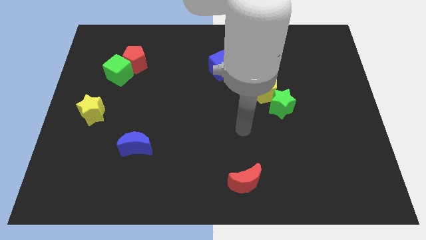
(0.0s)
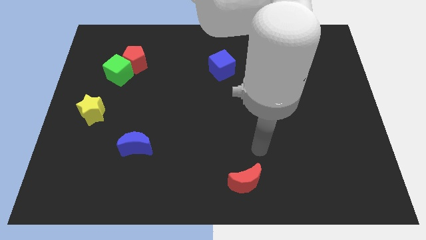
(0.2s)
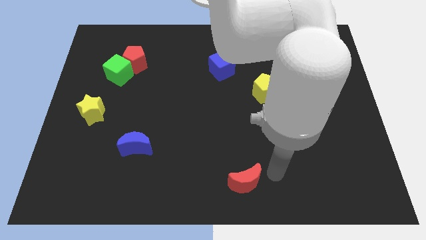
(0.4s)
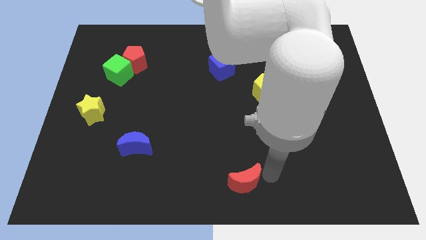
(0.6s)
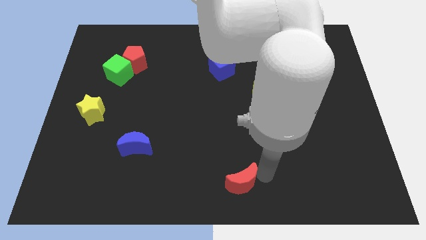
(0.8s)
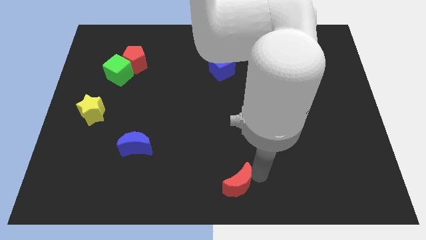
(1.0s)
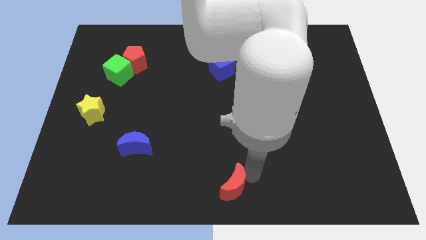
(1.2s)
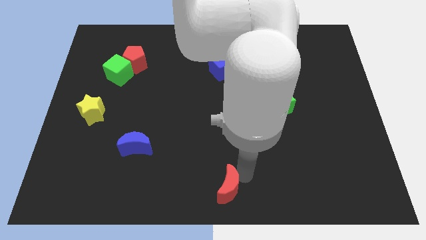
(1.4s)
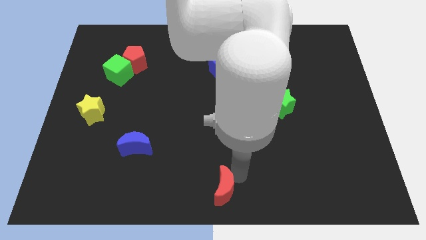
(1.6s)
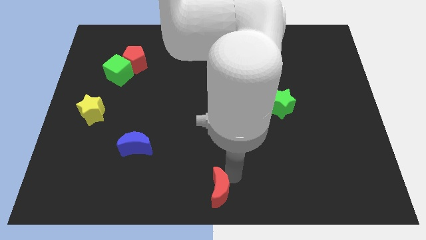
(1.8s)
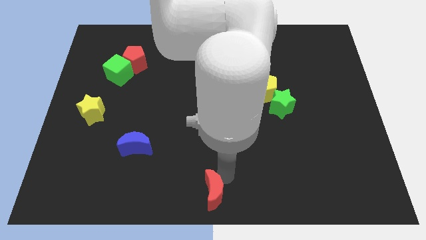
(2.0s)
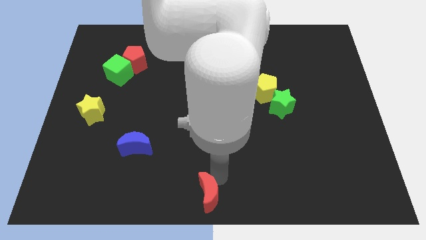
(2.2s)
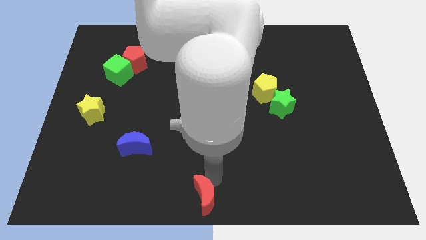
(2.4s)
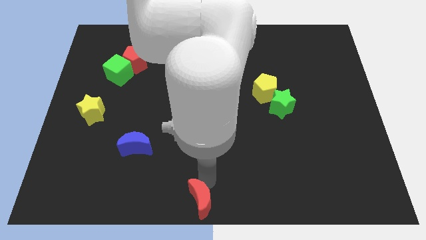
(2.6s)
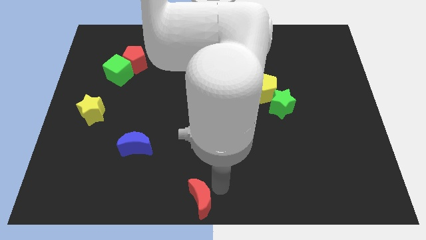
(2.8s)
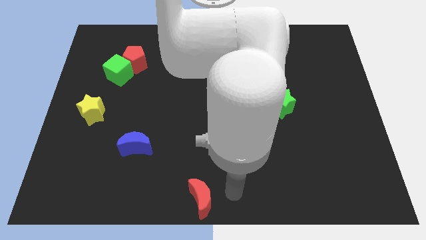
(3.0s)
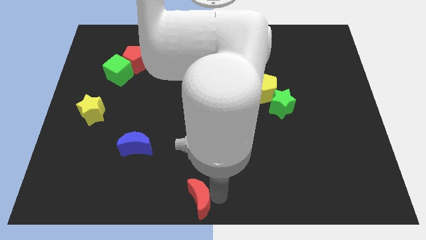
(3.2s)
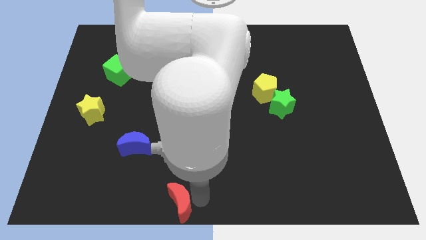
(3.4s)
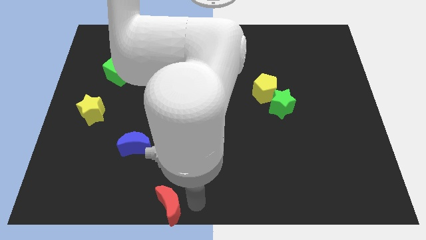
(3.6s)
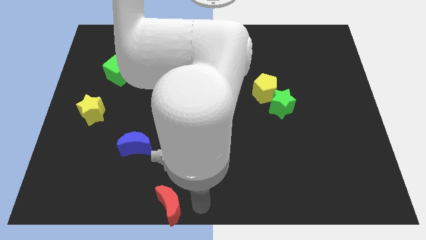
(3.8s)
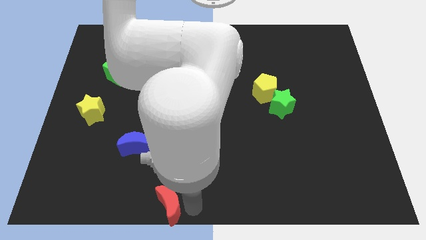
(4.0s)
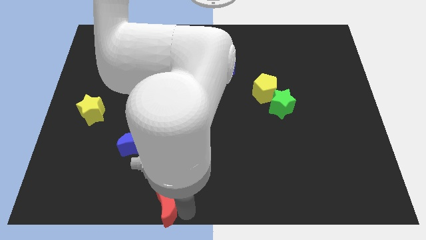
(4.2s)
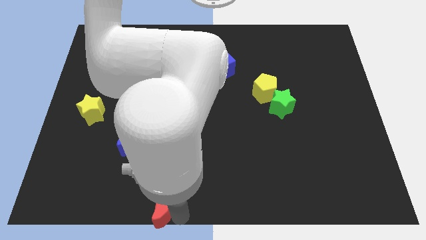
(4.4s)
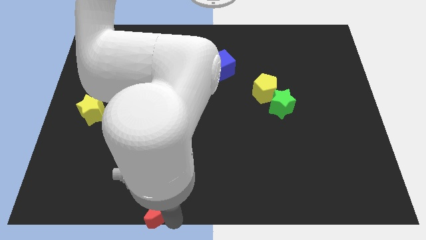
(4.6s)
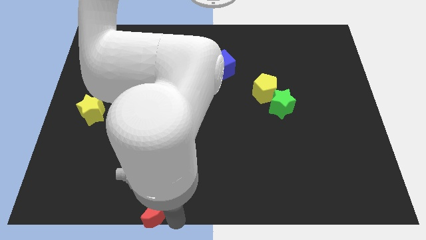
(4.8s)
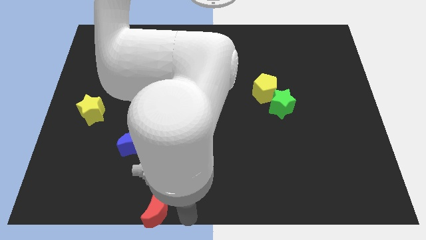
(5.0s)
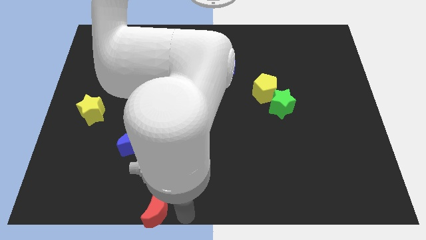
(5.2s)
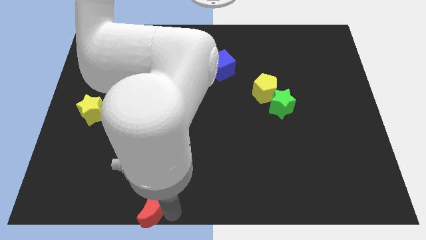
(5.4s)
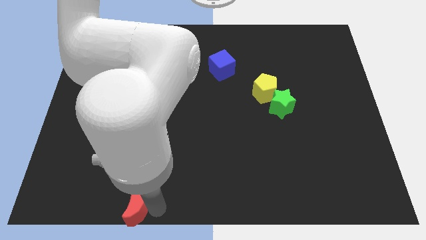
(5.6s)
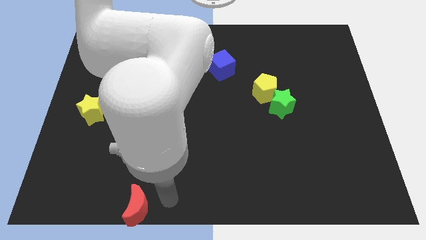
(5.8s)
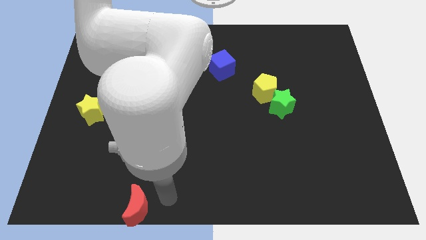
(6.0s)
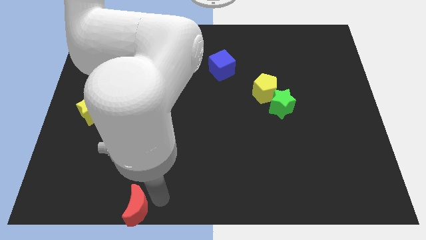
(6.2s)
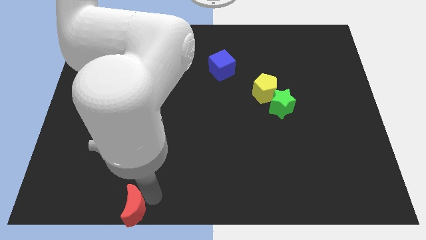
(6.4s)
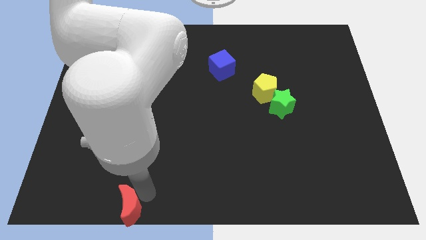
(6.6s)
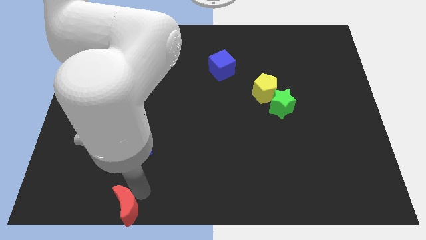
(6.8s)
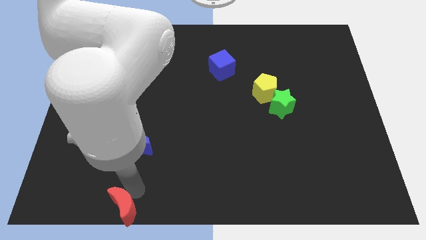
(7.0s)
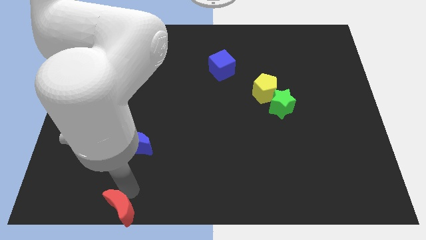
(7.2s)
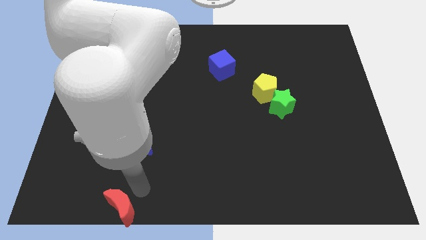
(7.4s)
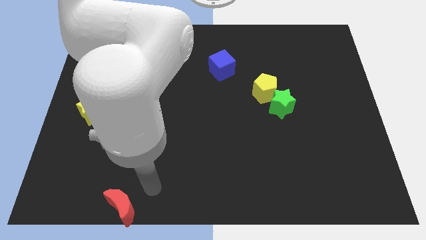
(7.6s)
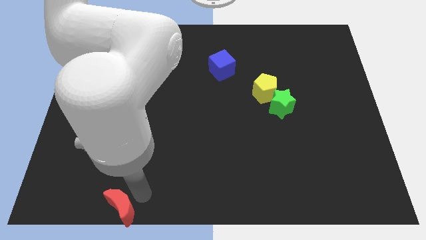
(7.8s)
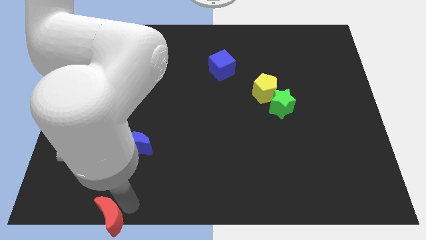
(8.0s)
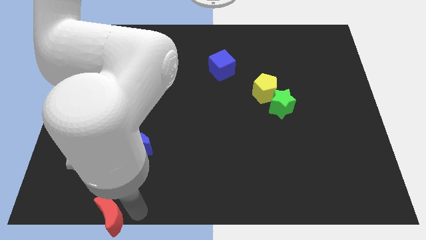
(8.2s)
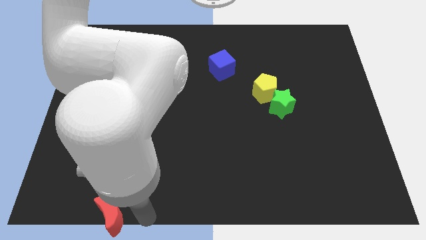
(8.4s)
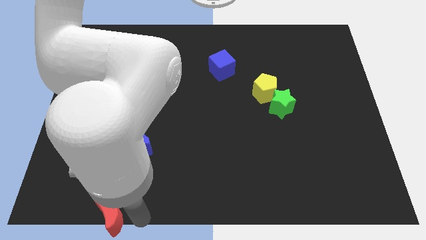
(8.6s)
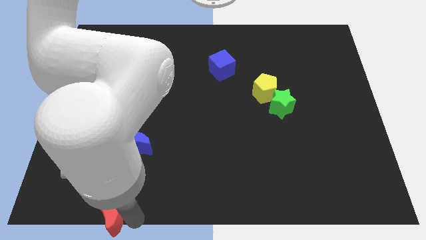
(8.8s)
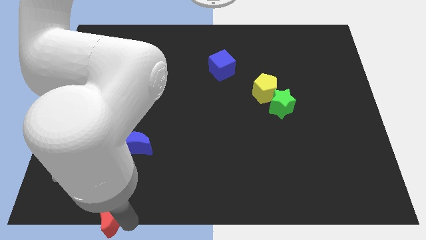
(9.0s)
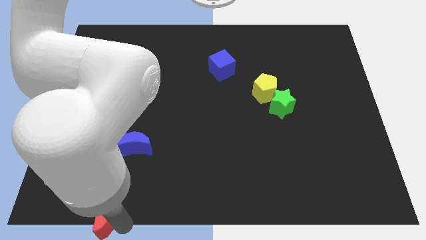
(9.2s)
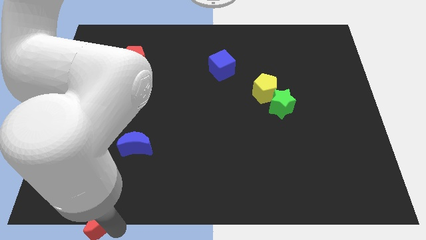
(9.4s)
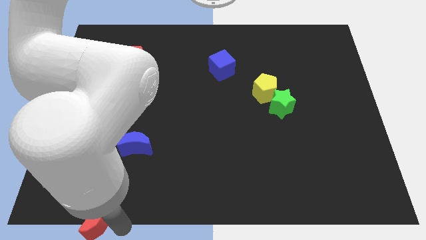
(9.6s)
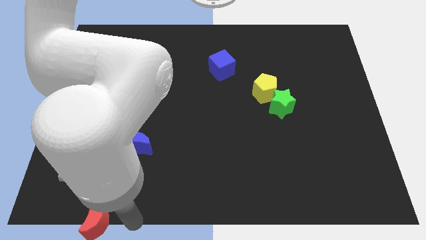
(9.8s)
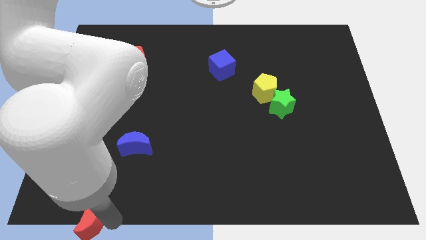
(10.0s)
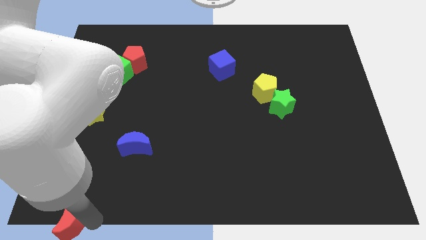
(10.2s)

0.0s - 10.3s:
put the red moon to the bottom left

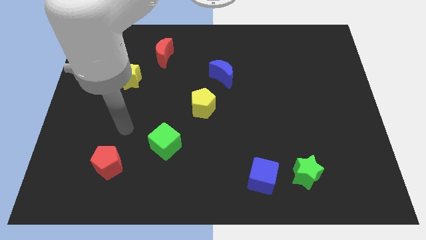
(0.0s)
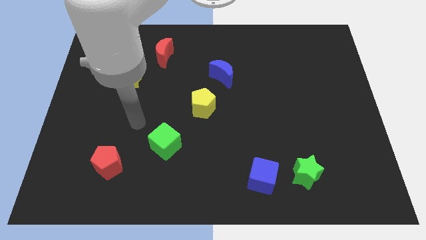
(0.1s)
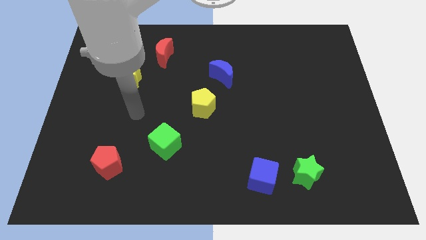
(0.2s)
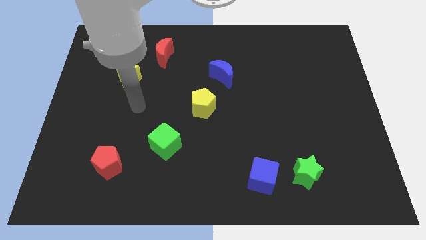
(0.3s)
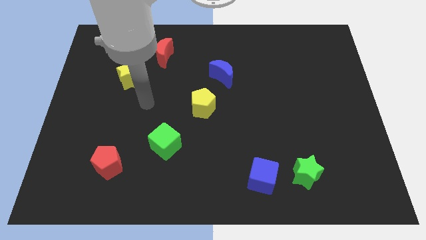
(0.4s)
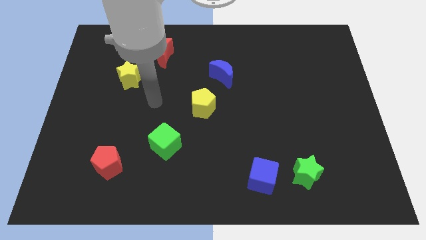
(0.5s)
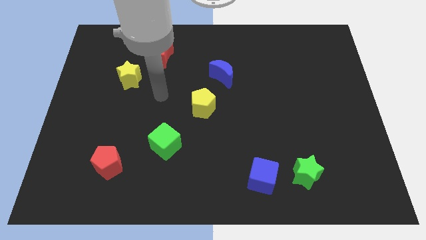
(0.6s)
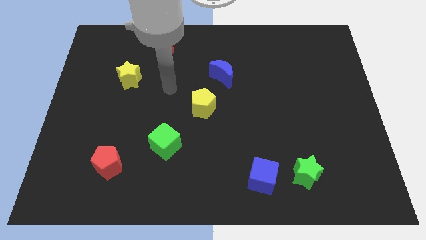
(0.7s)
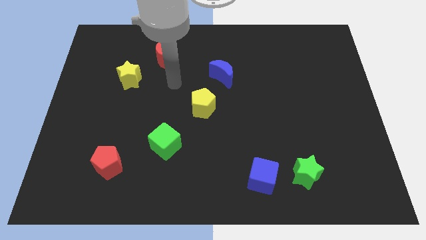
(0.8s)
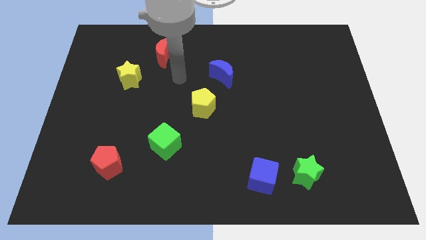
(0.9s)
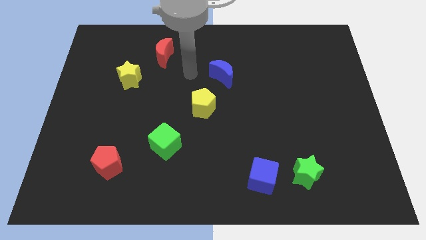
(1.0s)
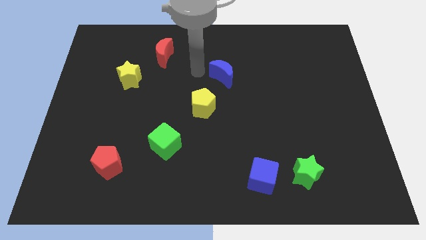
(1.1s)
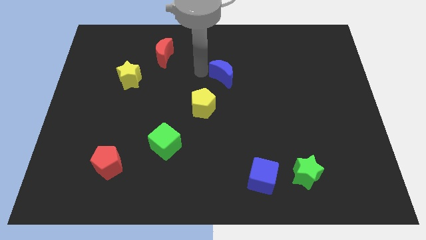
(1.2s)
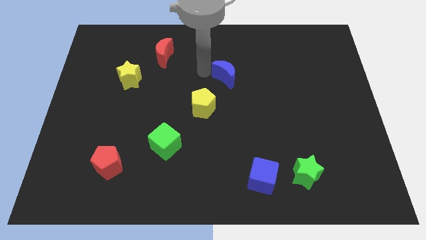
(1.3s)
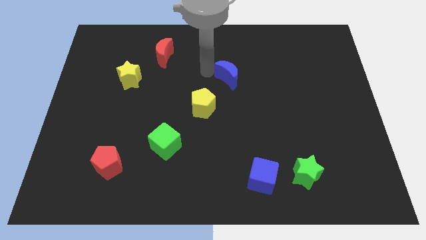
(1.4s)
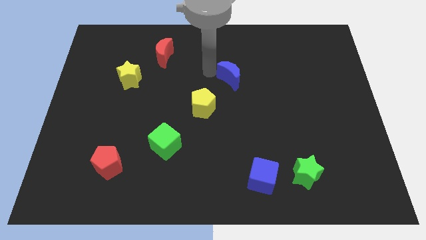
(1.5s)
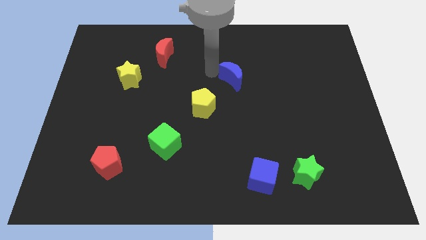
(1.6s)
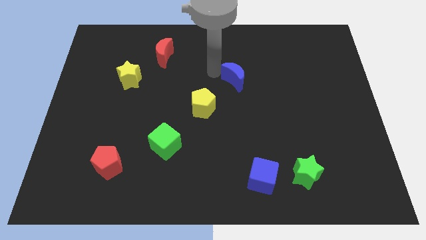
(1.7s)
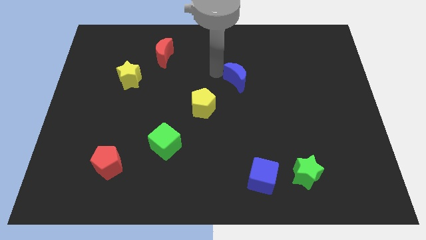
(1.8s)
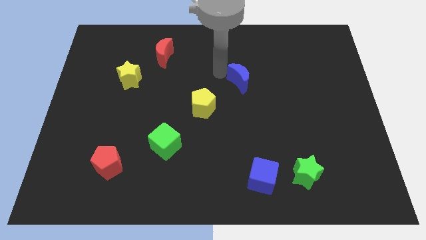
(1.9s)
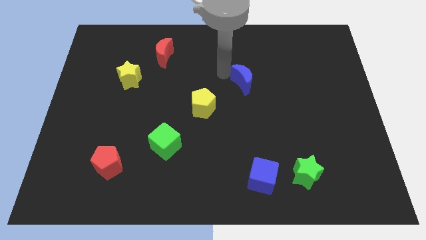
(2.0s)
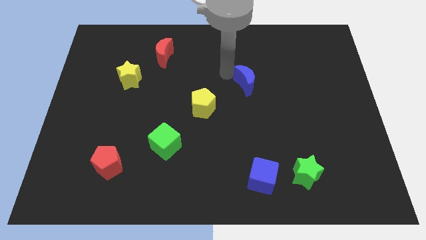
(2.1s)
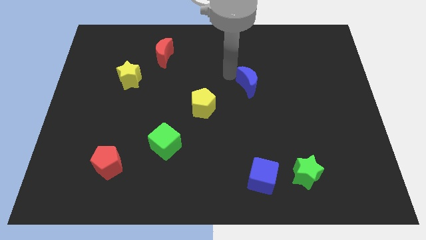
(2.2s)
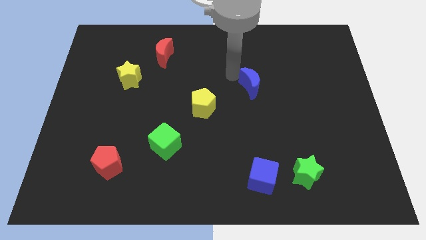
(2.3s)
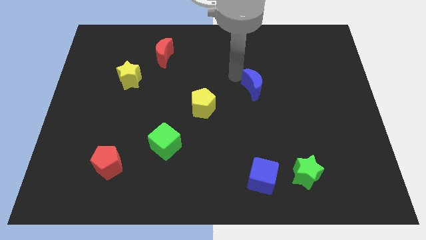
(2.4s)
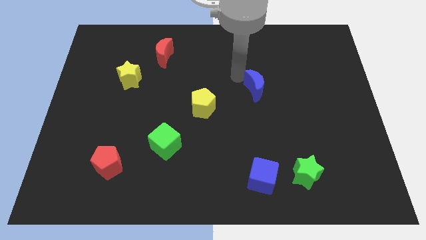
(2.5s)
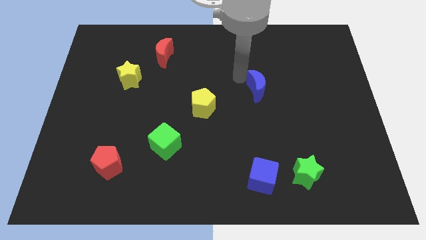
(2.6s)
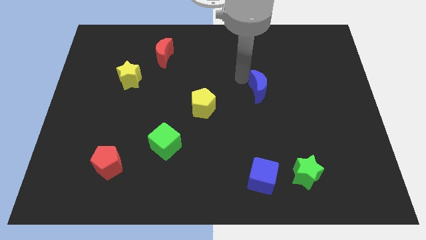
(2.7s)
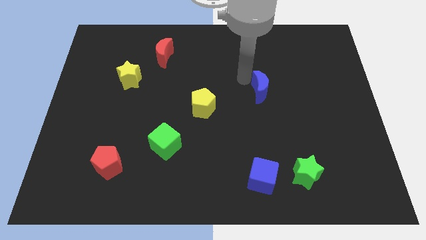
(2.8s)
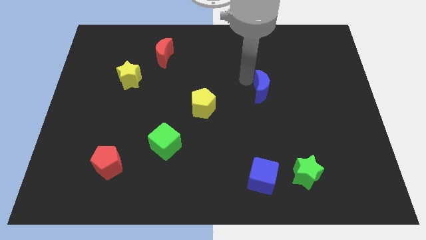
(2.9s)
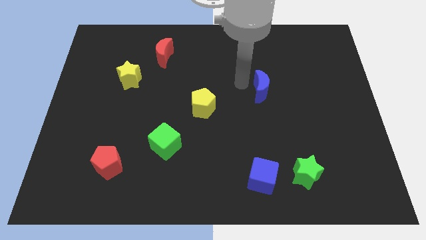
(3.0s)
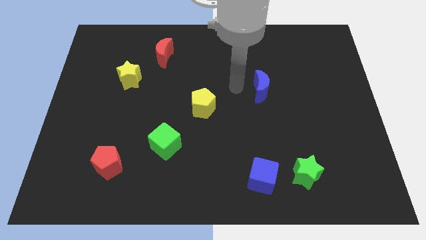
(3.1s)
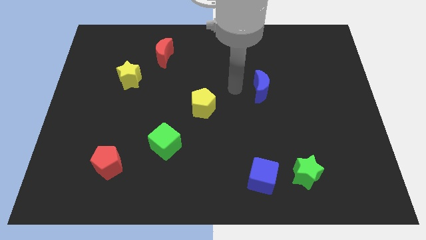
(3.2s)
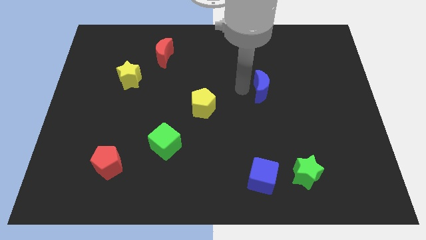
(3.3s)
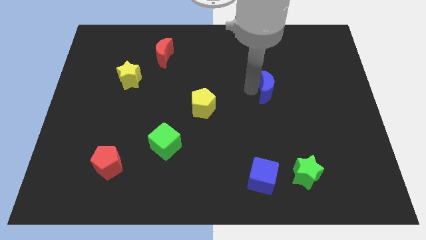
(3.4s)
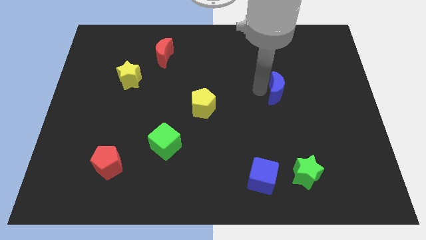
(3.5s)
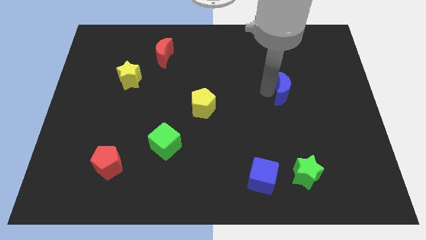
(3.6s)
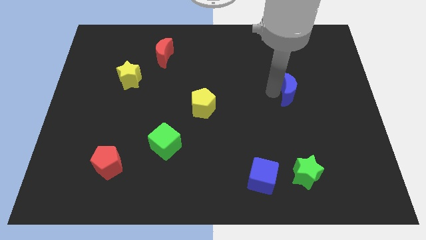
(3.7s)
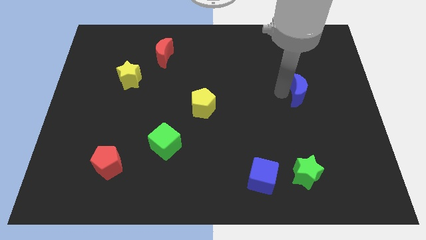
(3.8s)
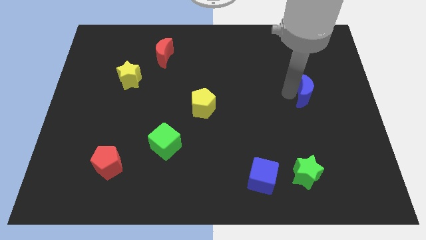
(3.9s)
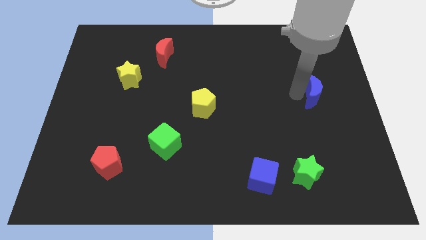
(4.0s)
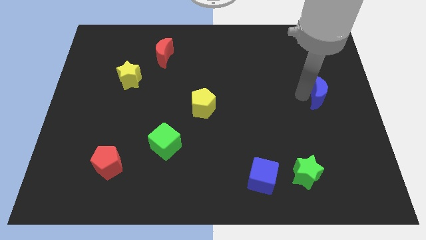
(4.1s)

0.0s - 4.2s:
slide the blue moon to the right side of the board
